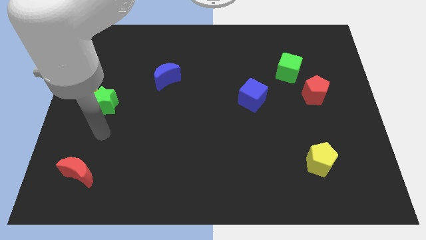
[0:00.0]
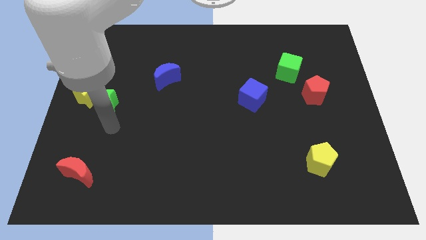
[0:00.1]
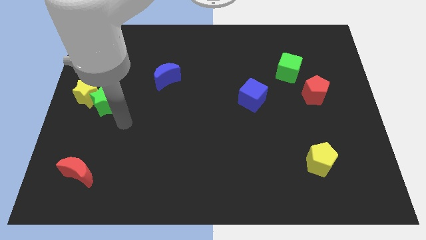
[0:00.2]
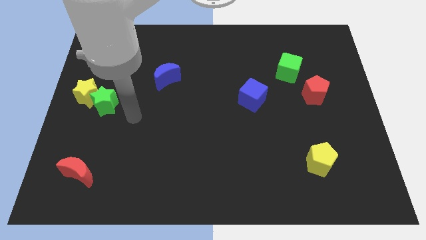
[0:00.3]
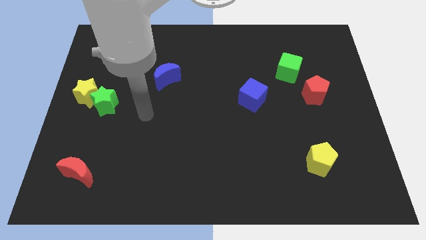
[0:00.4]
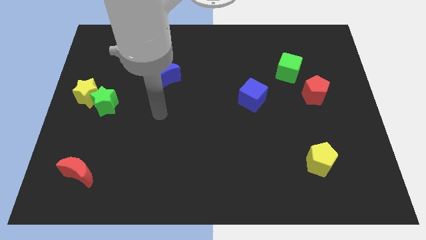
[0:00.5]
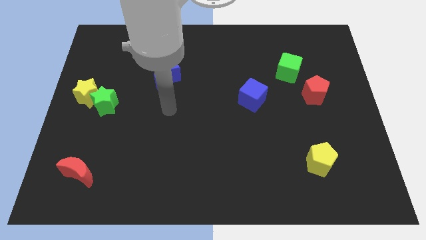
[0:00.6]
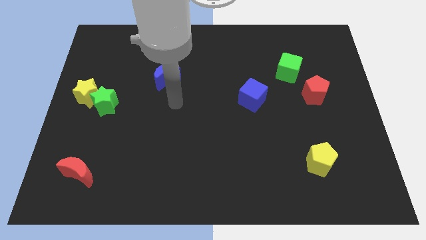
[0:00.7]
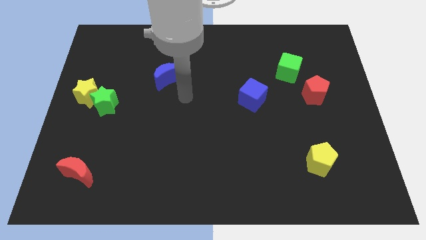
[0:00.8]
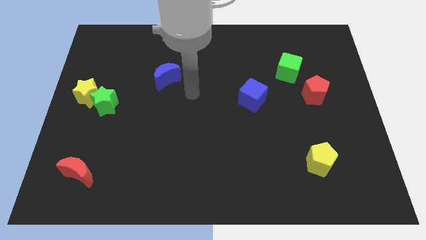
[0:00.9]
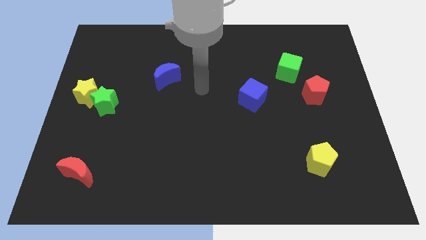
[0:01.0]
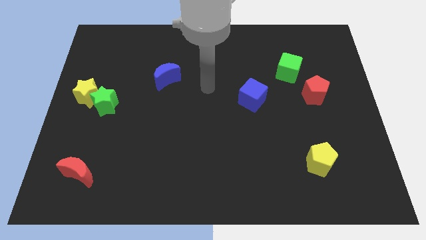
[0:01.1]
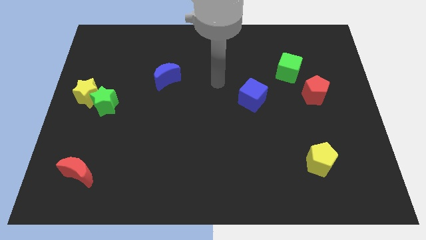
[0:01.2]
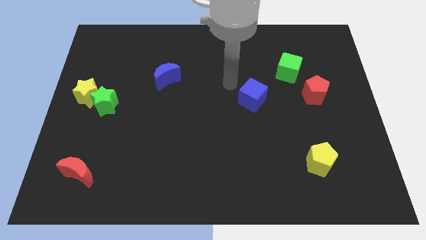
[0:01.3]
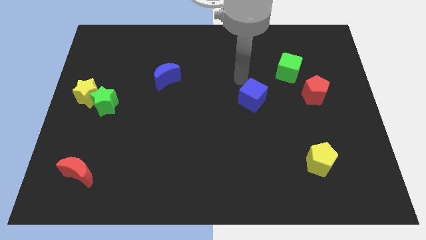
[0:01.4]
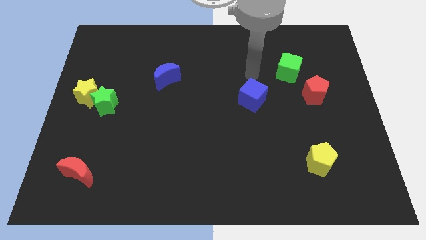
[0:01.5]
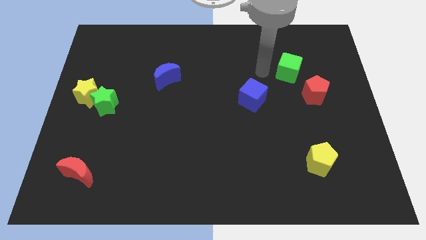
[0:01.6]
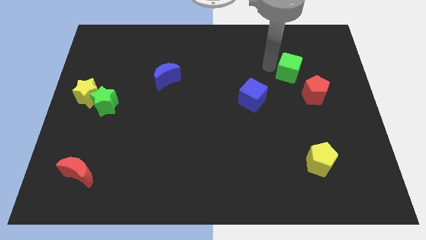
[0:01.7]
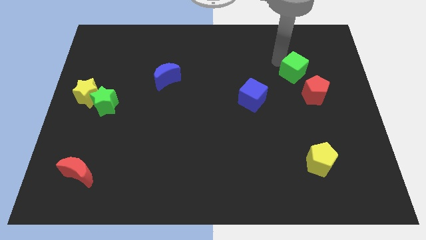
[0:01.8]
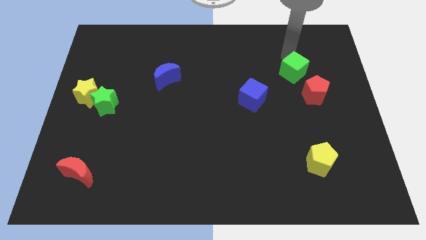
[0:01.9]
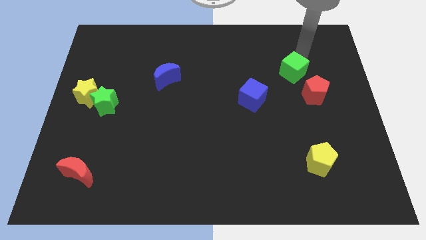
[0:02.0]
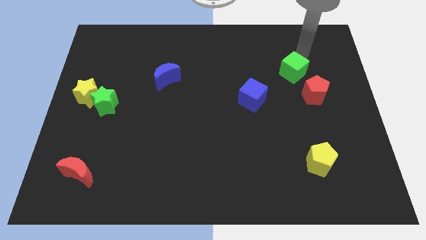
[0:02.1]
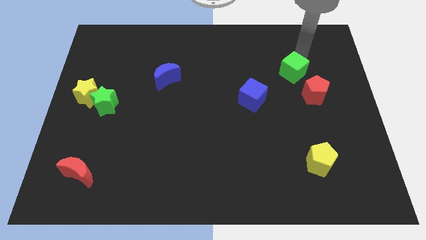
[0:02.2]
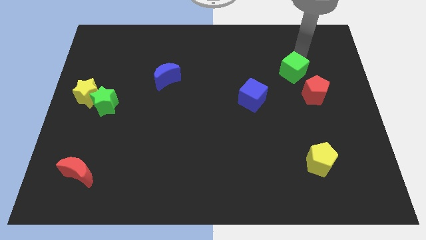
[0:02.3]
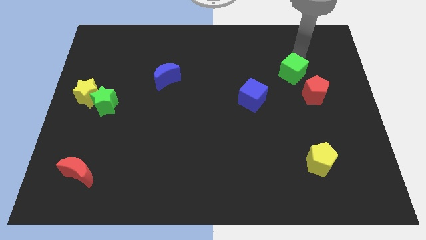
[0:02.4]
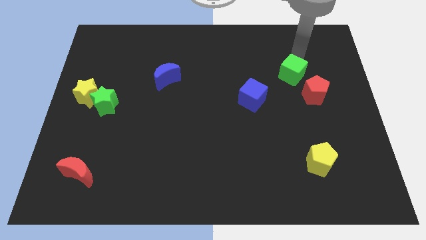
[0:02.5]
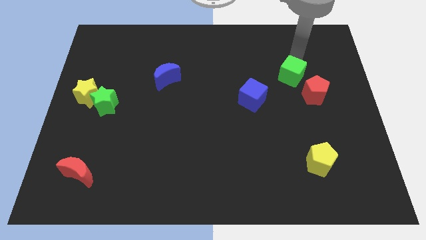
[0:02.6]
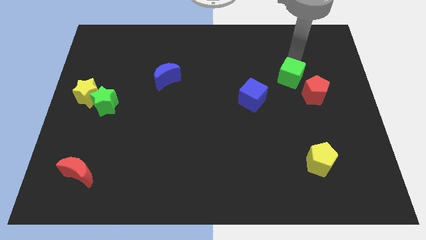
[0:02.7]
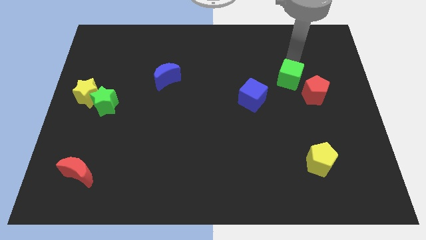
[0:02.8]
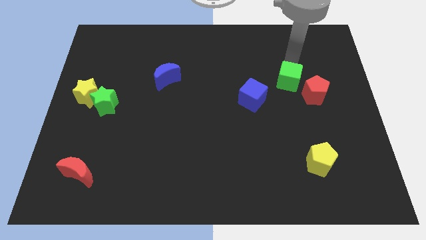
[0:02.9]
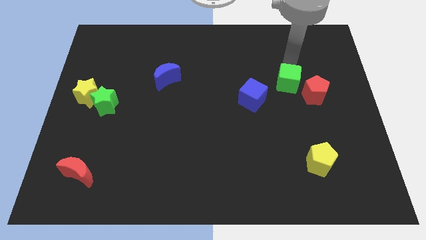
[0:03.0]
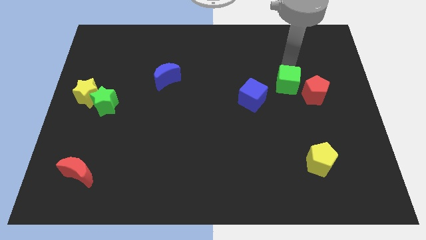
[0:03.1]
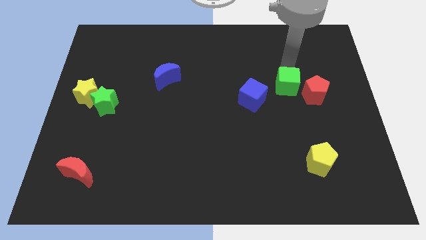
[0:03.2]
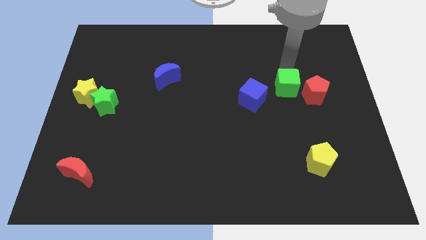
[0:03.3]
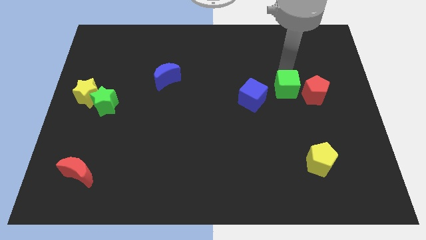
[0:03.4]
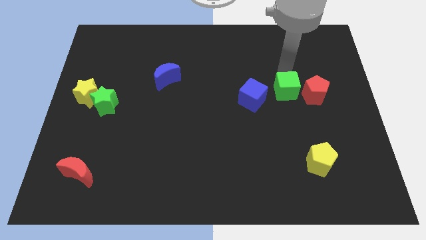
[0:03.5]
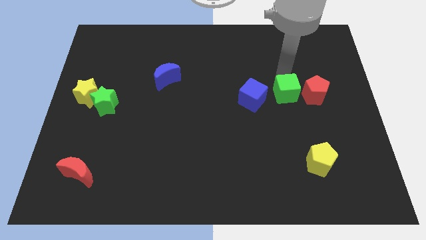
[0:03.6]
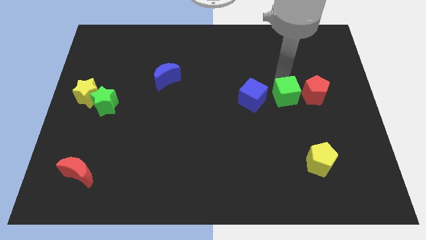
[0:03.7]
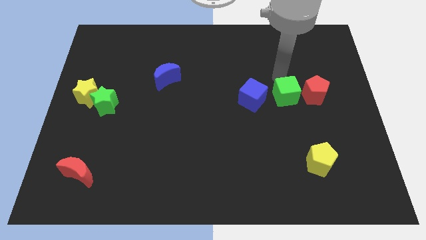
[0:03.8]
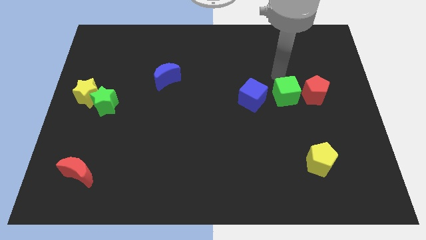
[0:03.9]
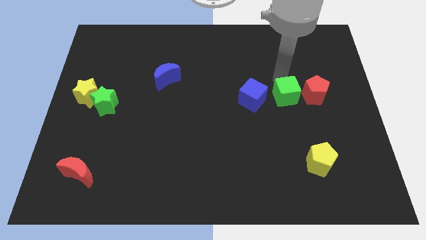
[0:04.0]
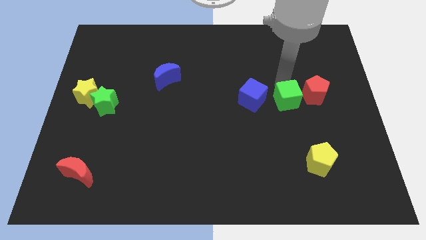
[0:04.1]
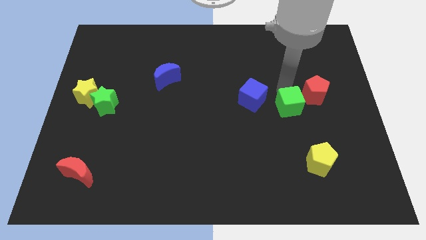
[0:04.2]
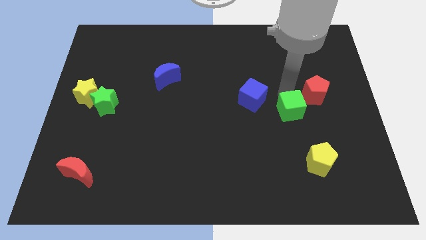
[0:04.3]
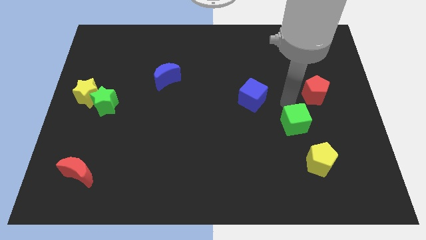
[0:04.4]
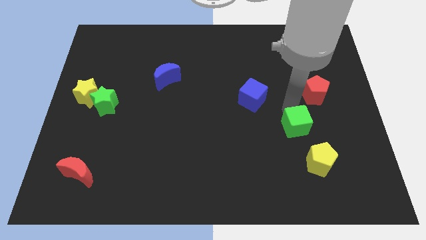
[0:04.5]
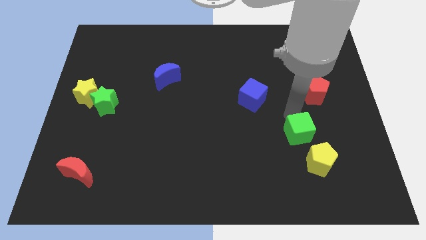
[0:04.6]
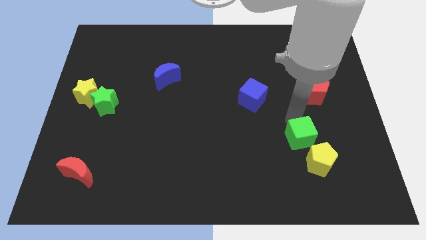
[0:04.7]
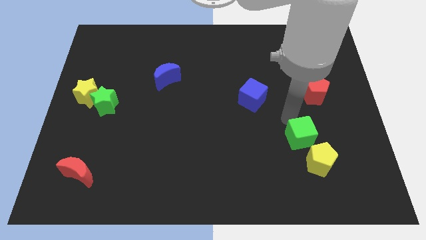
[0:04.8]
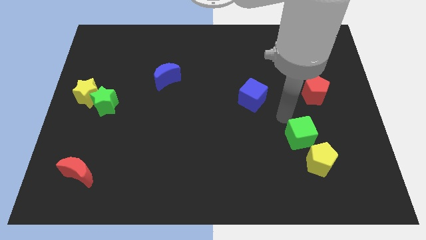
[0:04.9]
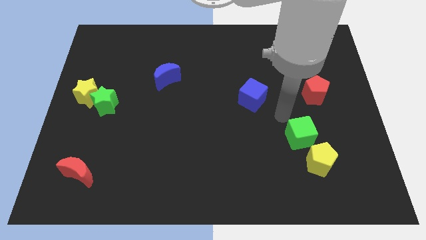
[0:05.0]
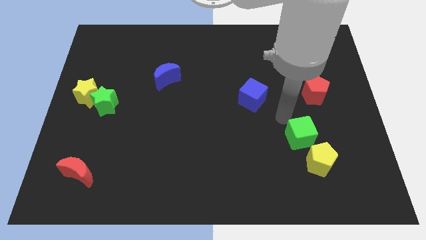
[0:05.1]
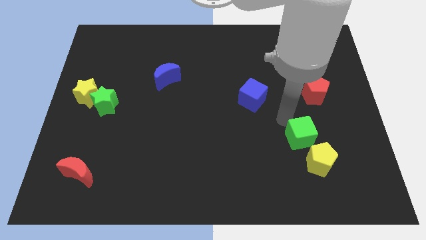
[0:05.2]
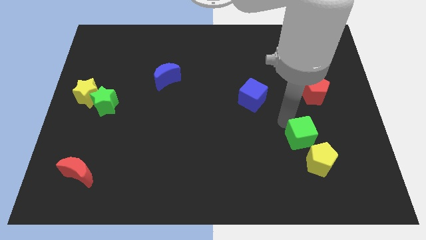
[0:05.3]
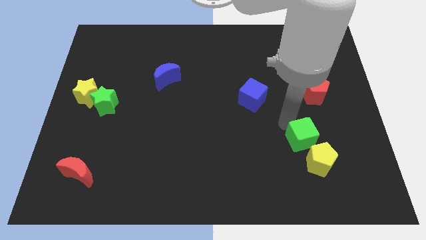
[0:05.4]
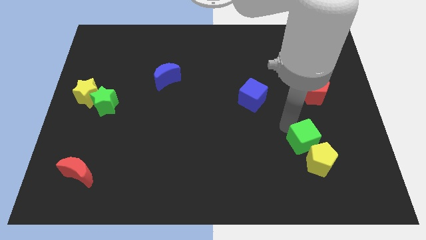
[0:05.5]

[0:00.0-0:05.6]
slide the green cube to the yellow pentagon

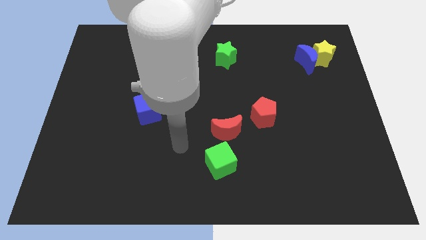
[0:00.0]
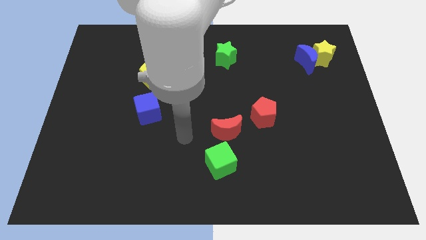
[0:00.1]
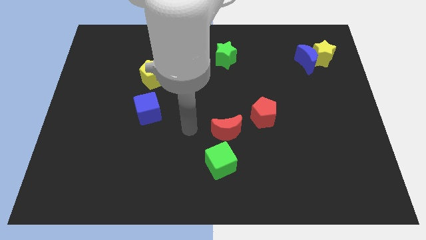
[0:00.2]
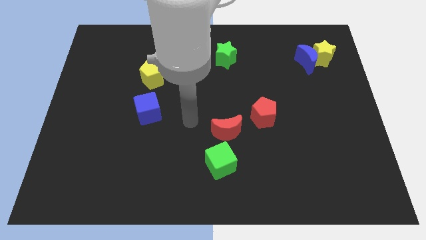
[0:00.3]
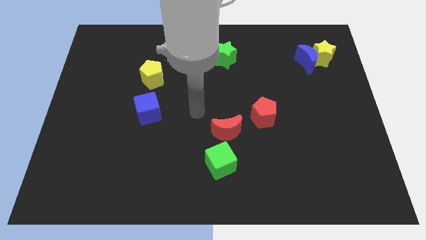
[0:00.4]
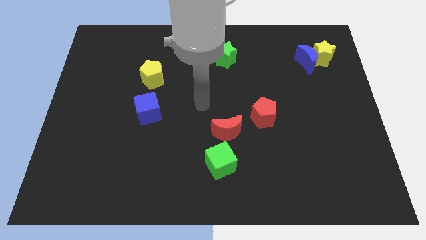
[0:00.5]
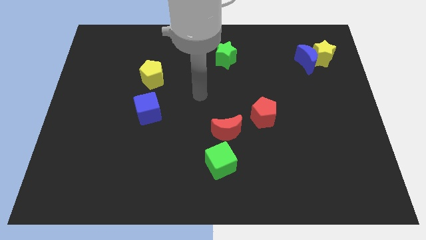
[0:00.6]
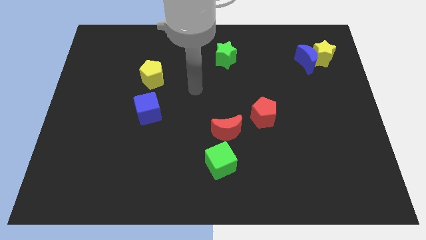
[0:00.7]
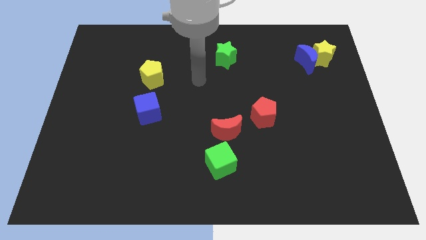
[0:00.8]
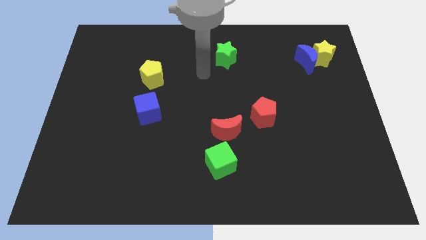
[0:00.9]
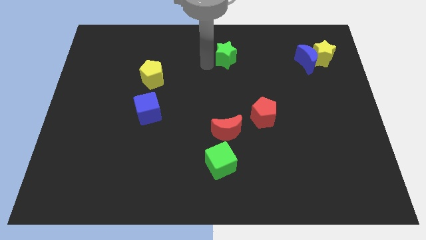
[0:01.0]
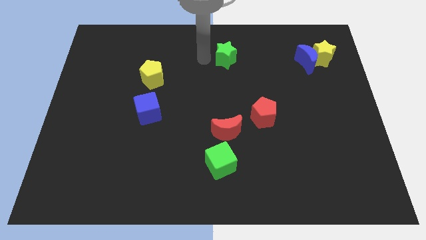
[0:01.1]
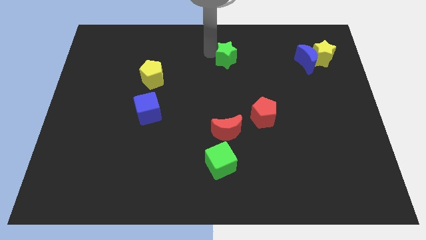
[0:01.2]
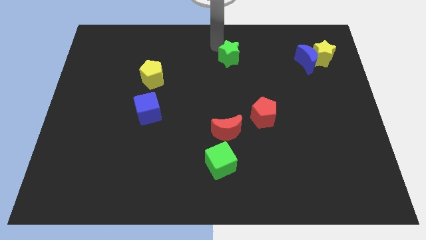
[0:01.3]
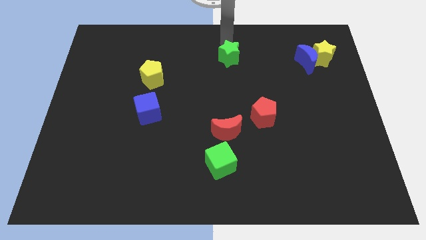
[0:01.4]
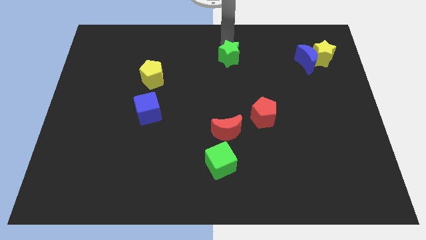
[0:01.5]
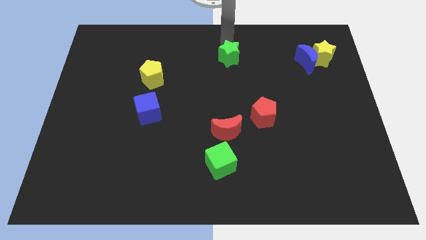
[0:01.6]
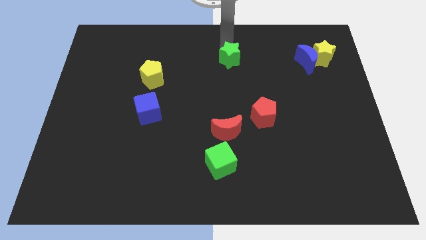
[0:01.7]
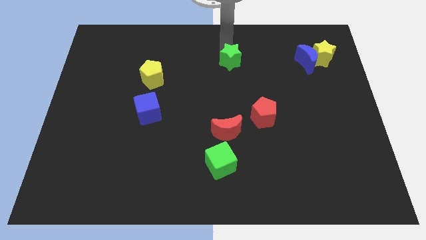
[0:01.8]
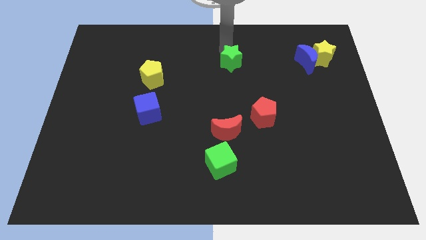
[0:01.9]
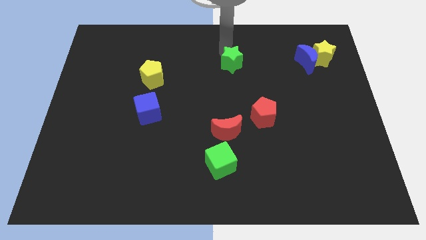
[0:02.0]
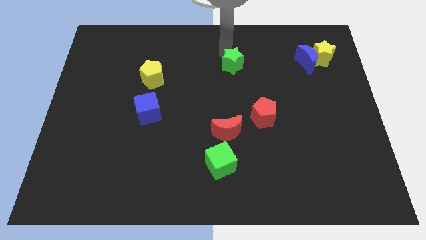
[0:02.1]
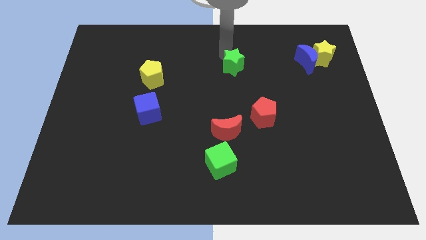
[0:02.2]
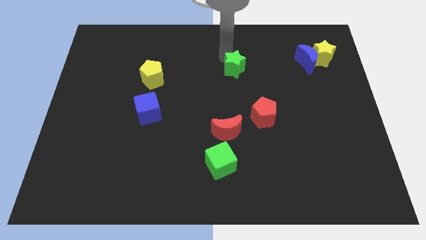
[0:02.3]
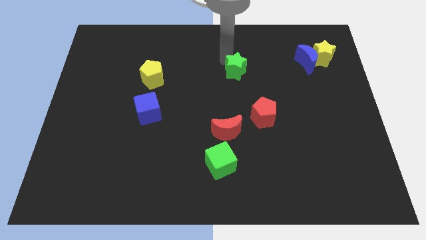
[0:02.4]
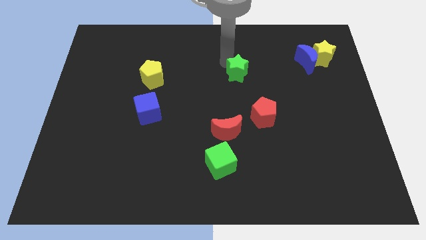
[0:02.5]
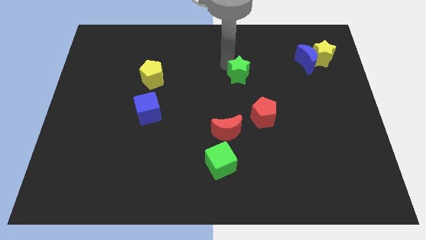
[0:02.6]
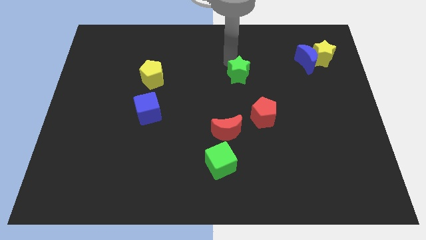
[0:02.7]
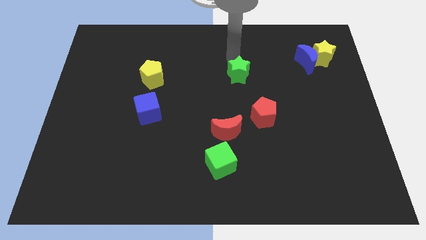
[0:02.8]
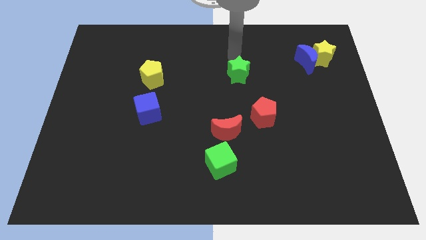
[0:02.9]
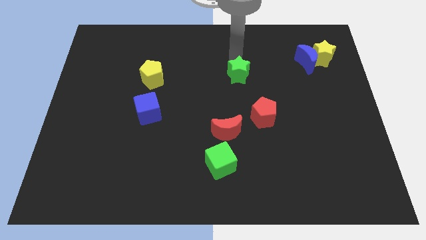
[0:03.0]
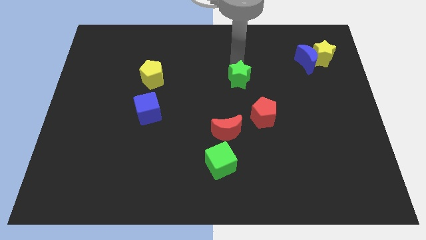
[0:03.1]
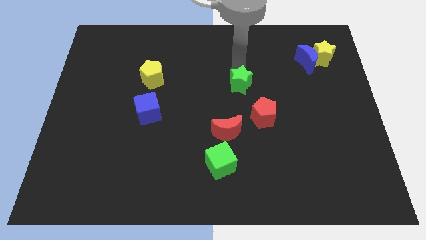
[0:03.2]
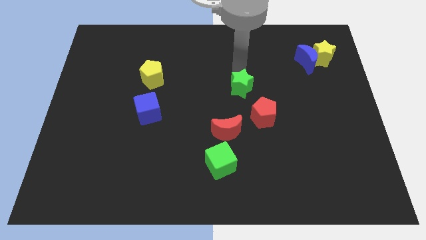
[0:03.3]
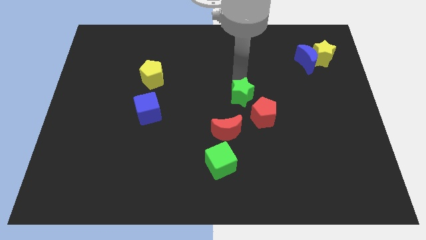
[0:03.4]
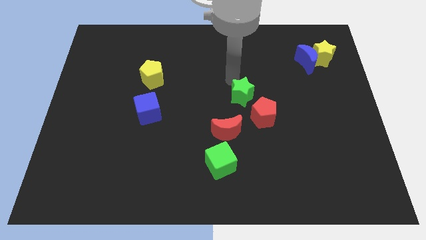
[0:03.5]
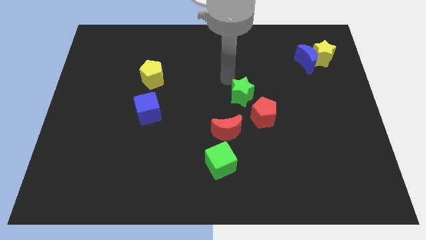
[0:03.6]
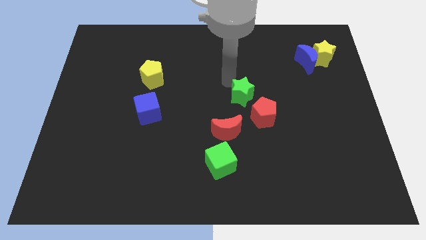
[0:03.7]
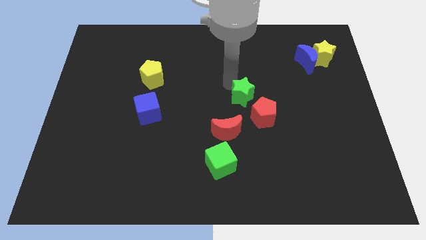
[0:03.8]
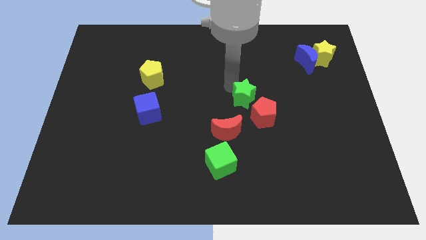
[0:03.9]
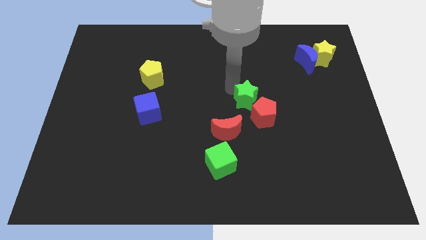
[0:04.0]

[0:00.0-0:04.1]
slide the green star next to the red pentagon
